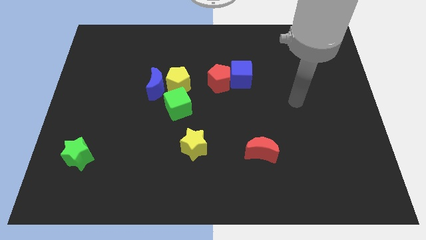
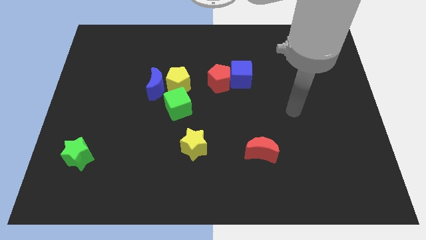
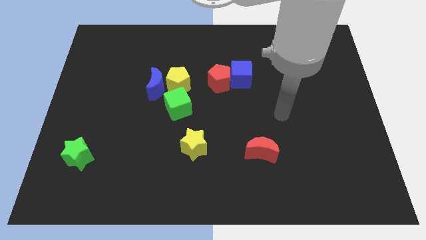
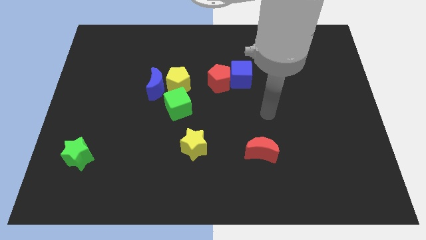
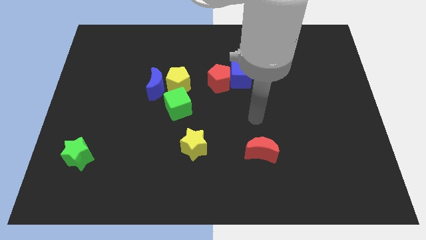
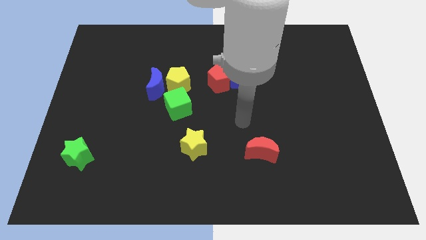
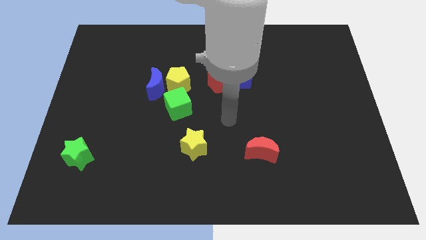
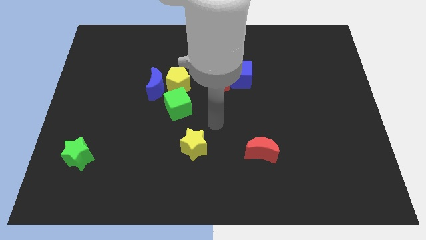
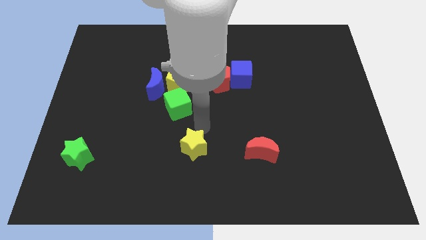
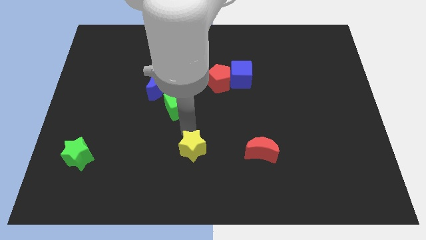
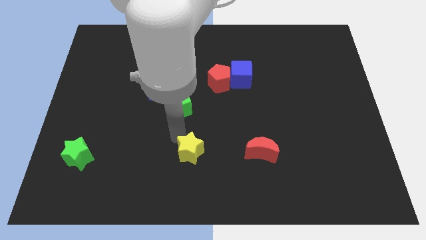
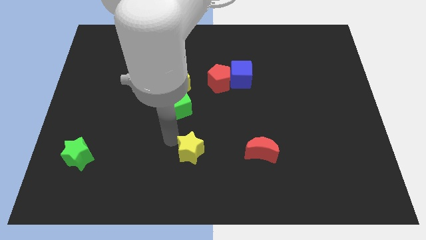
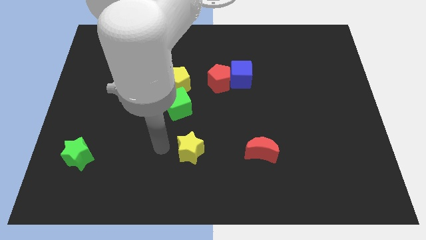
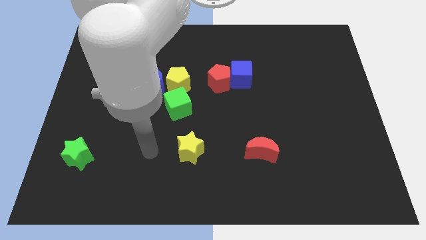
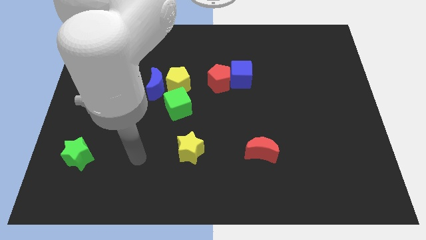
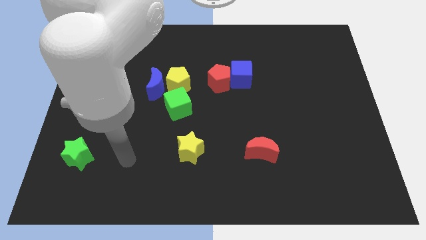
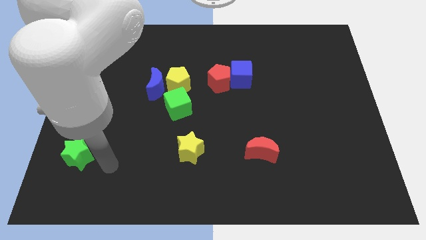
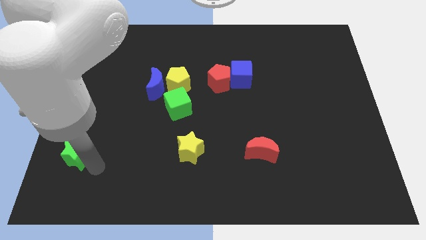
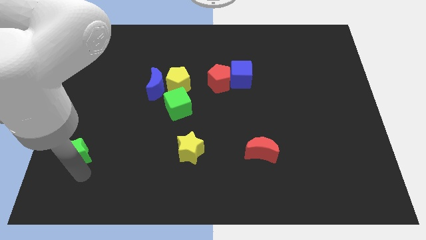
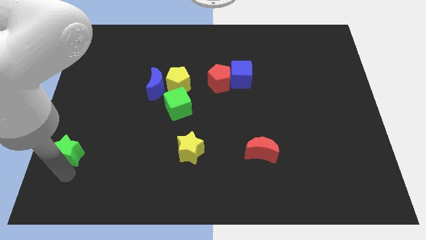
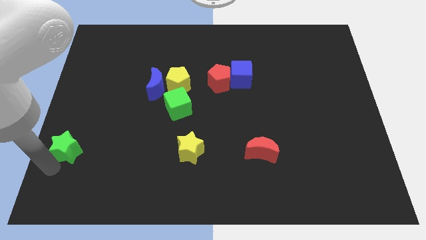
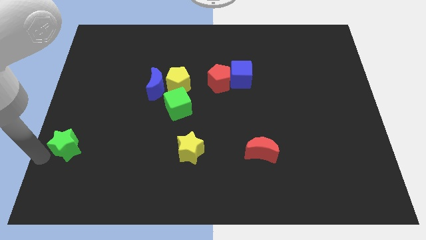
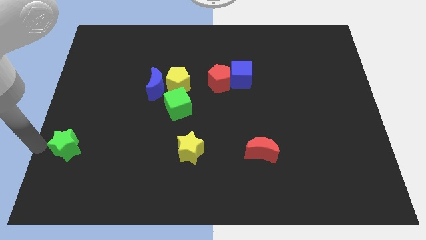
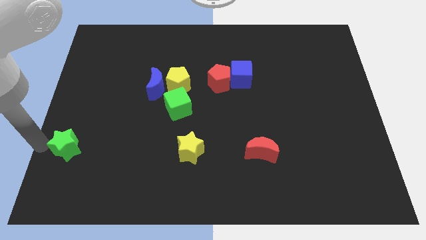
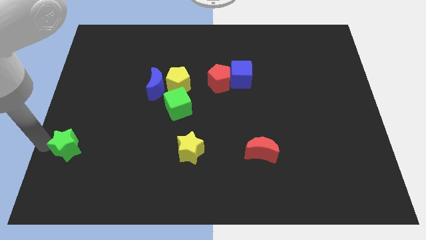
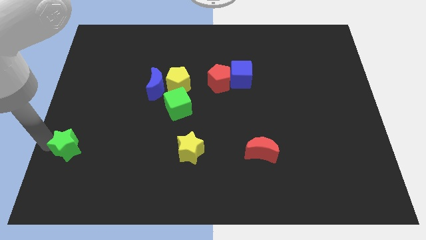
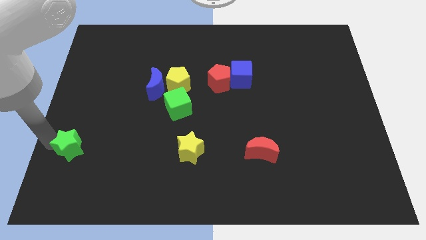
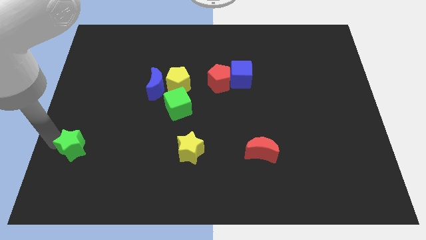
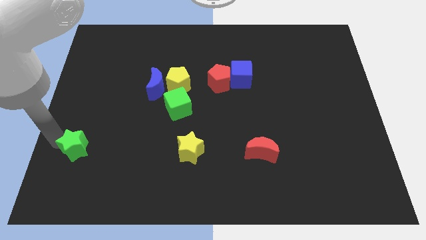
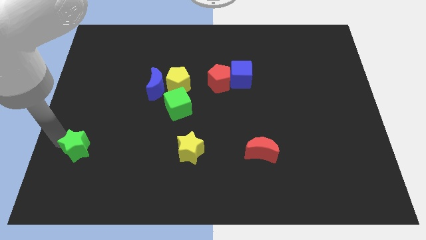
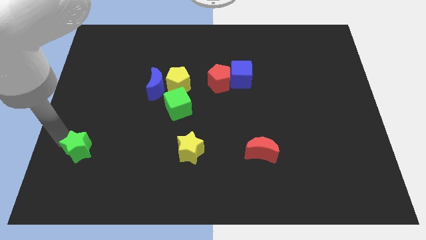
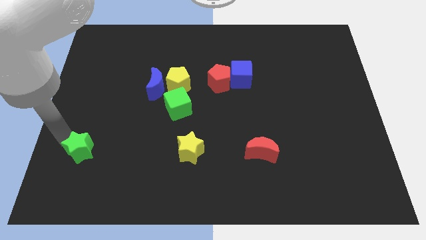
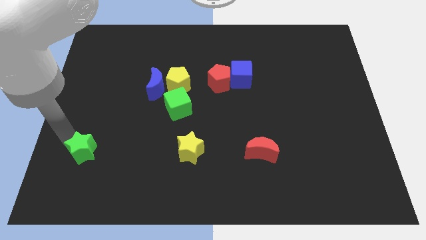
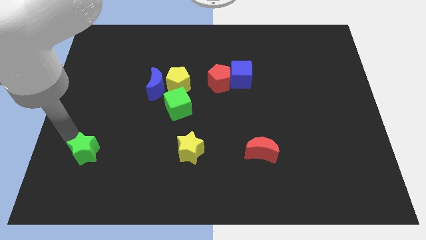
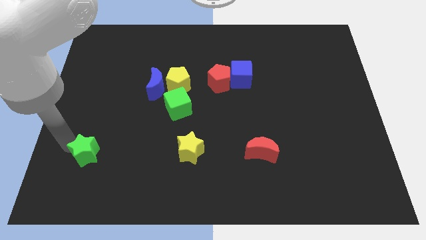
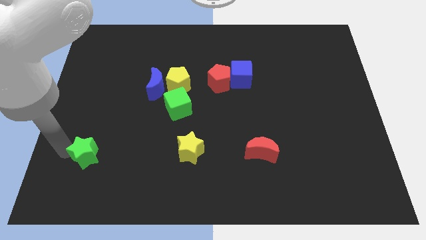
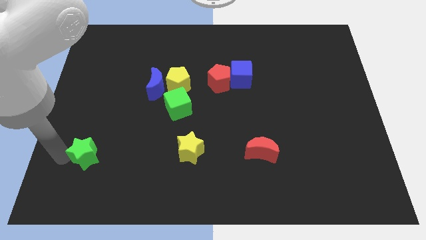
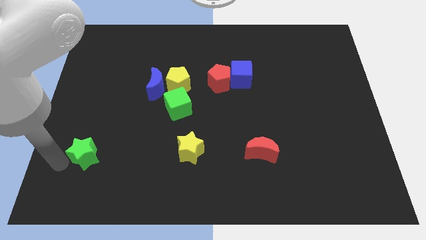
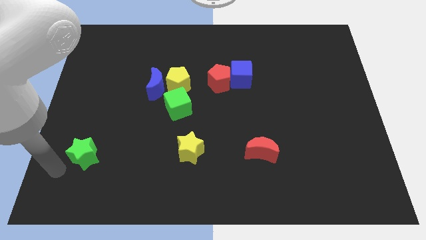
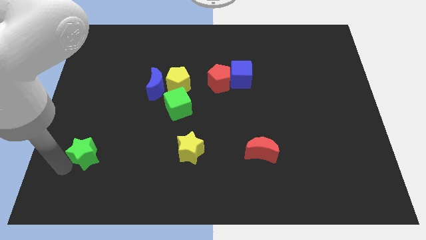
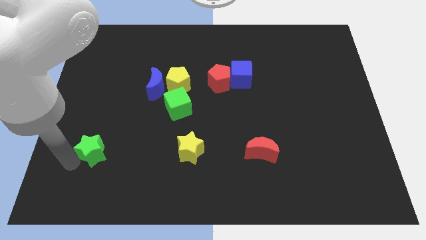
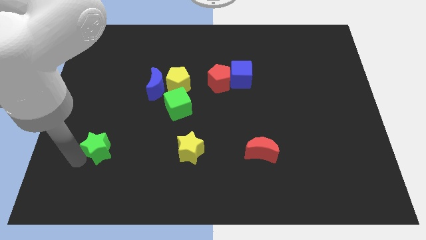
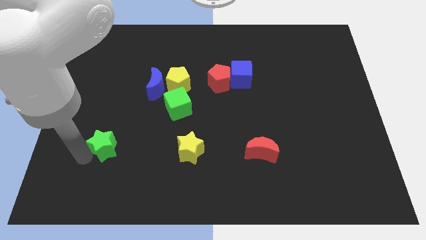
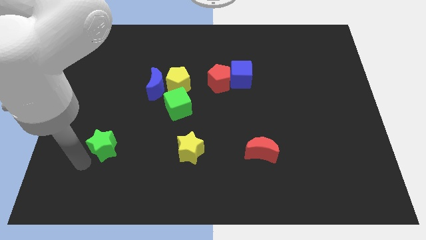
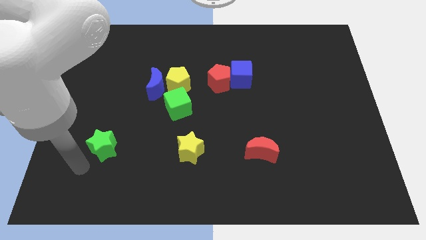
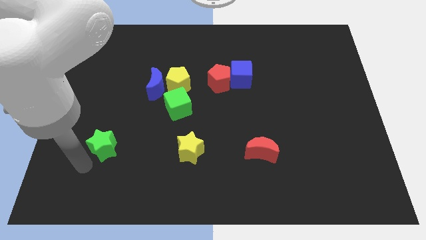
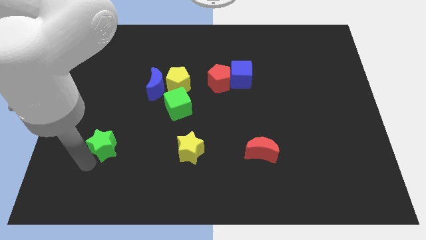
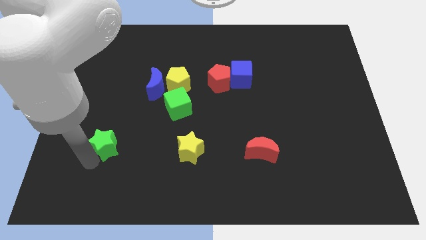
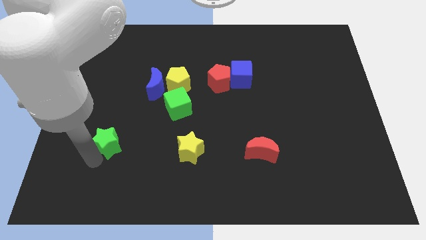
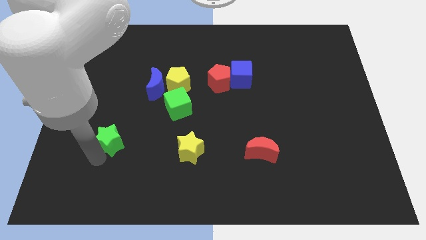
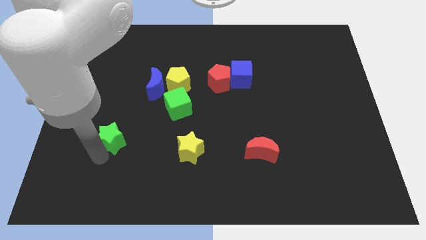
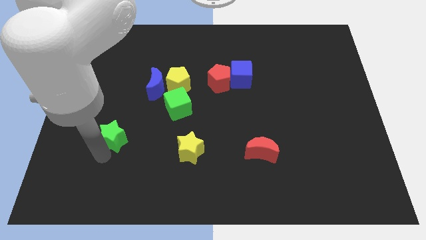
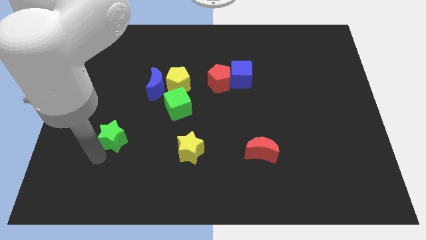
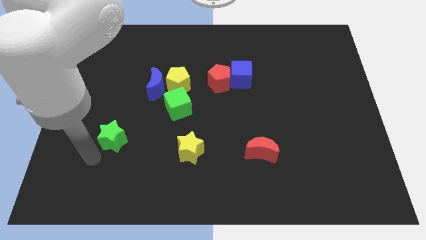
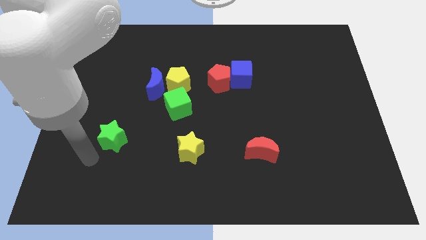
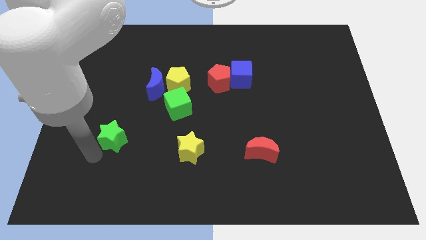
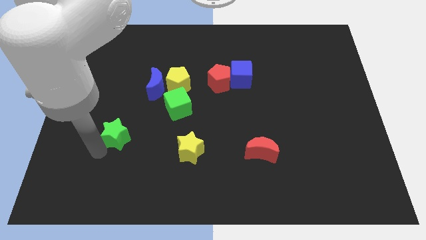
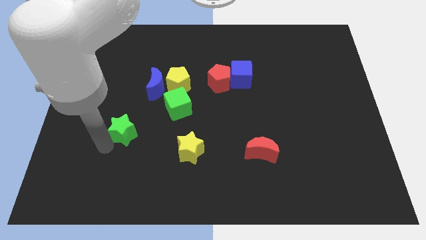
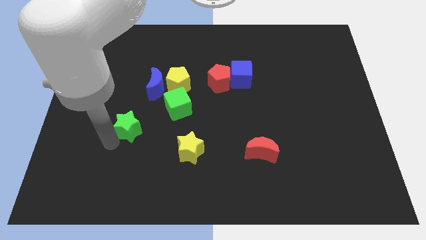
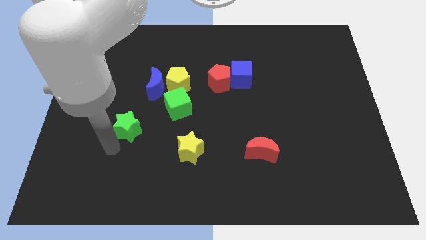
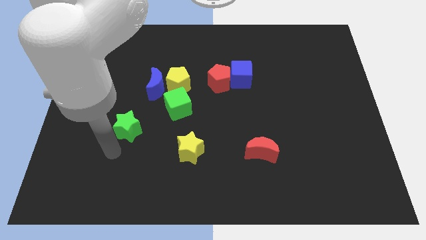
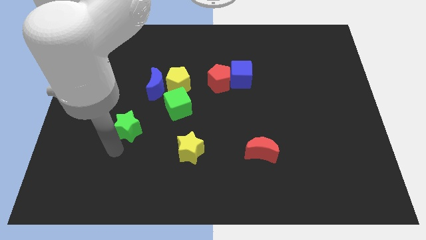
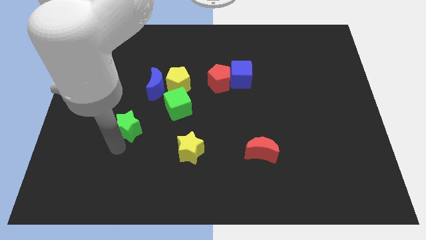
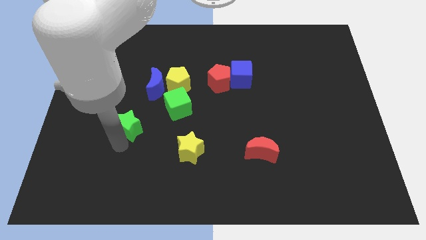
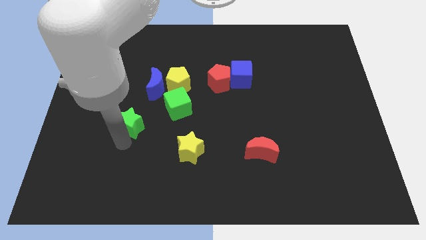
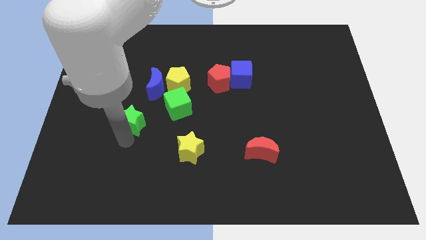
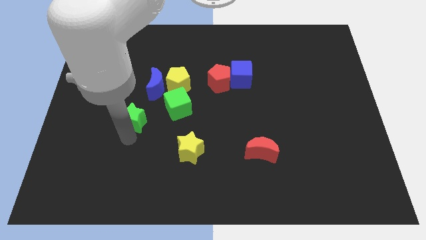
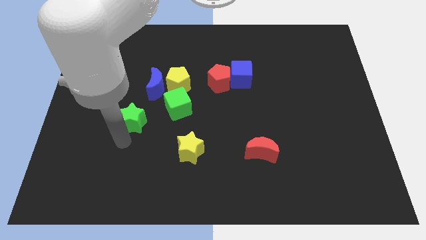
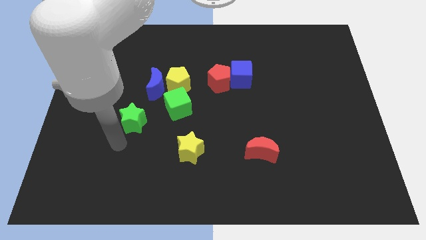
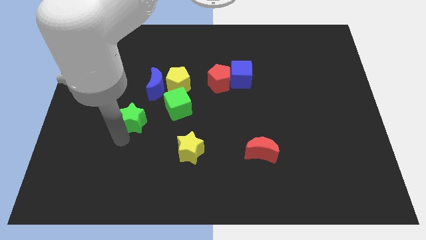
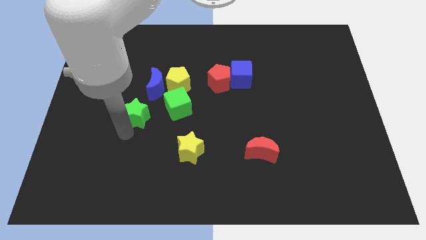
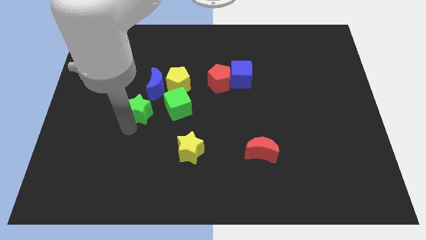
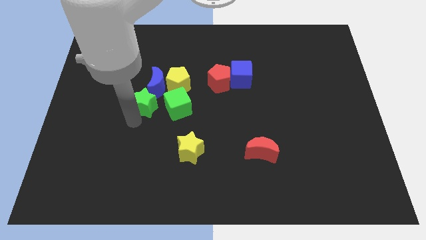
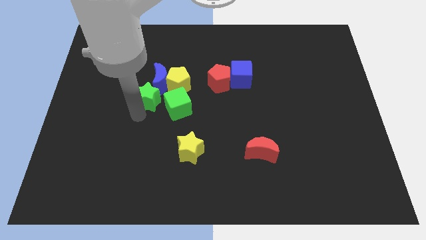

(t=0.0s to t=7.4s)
slide the green star next to the blue moon
